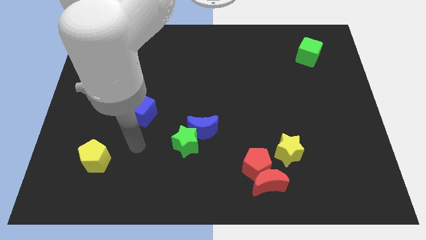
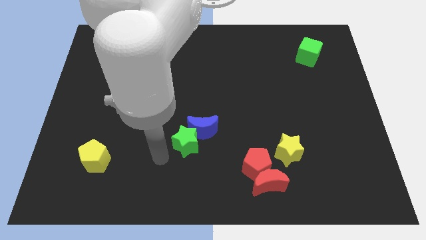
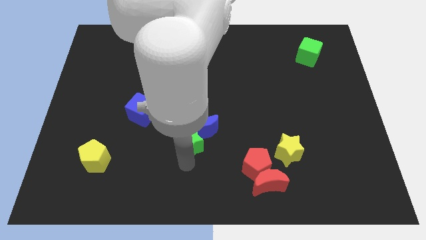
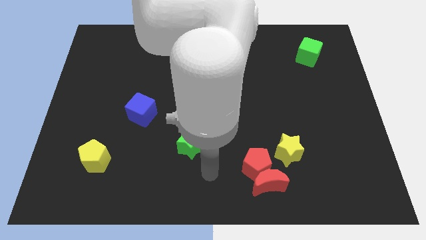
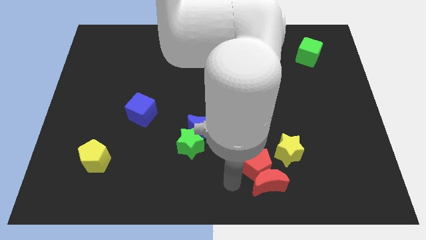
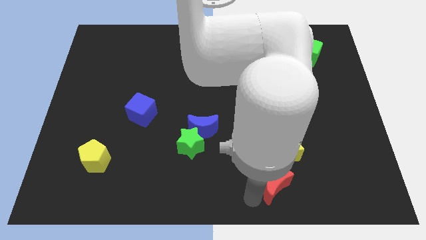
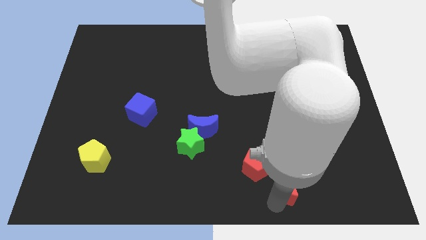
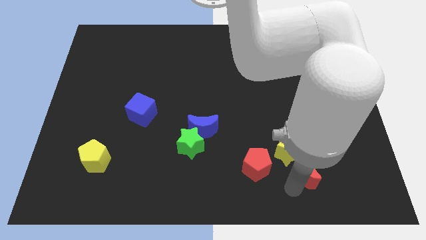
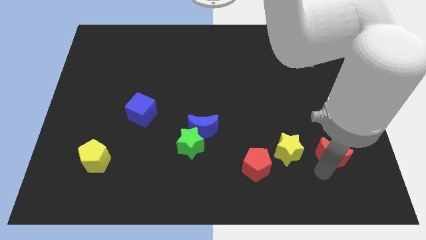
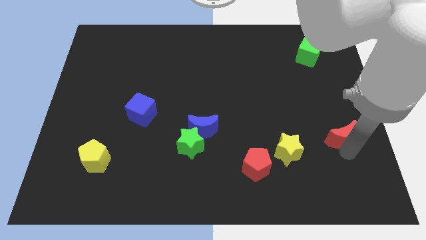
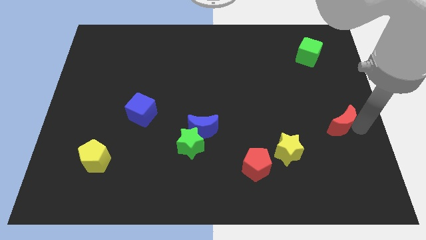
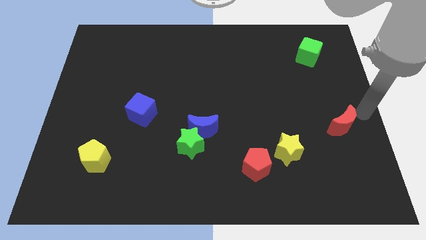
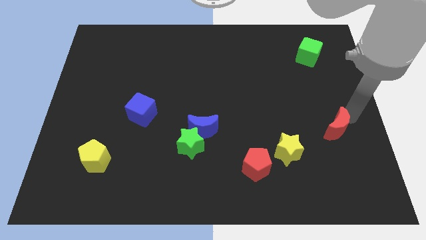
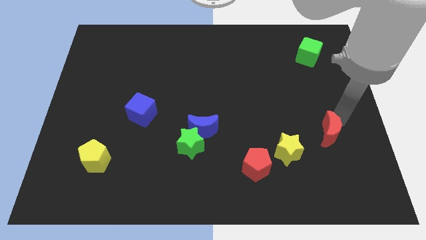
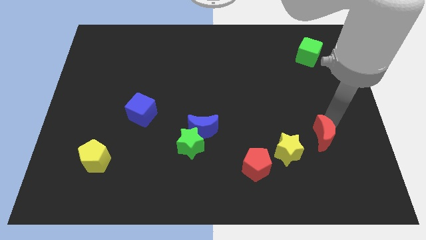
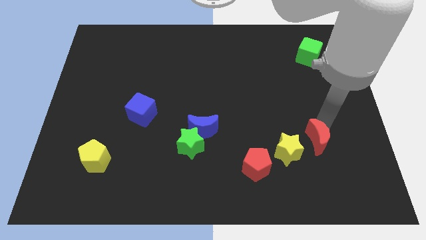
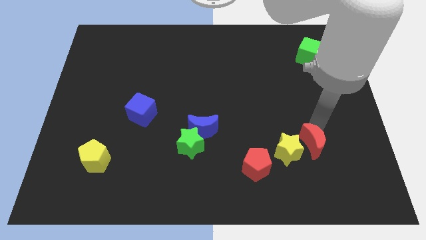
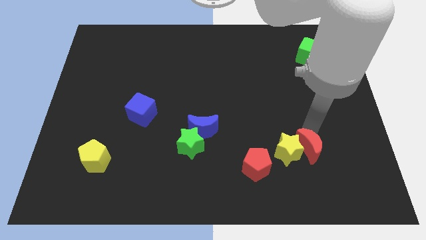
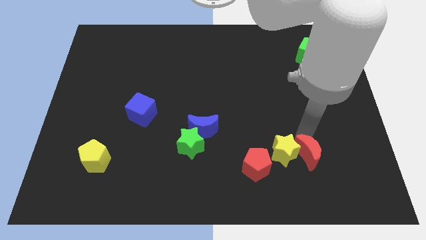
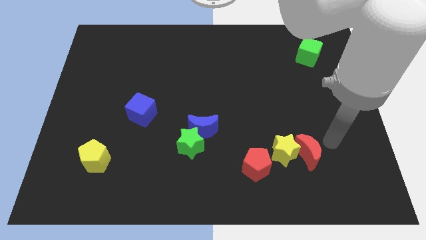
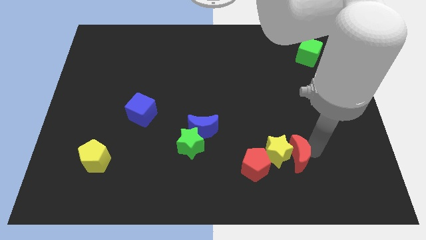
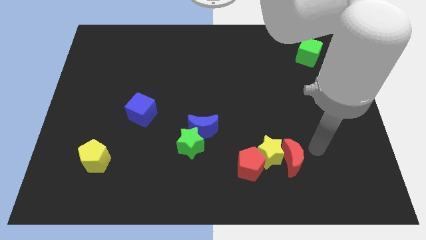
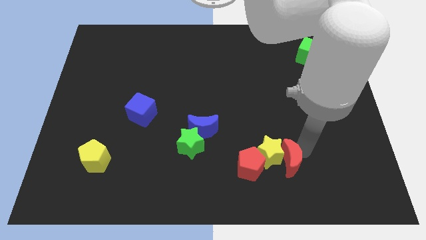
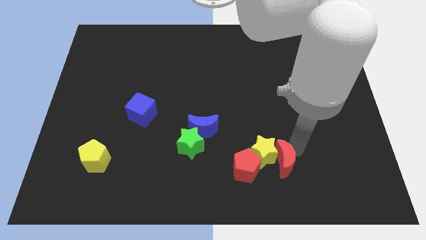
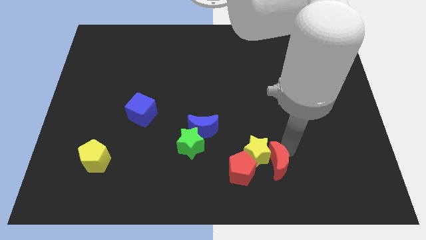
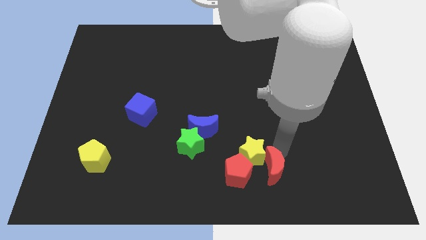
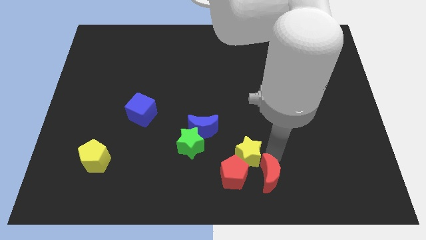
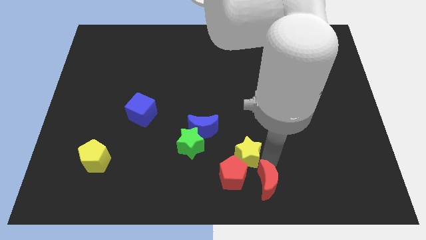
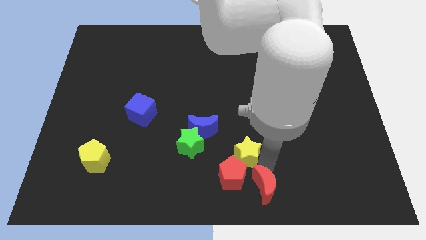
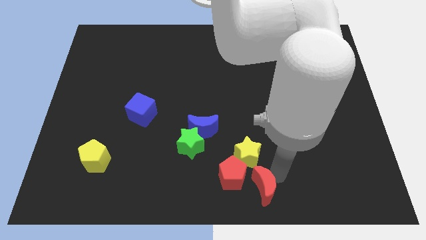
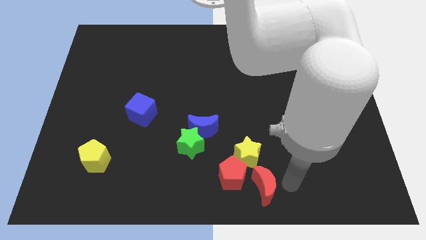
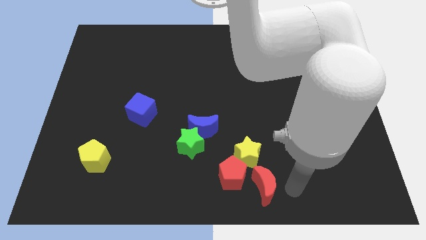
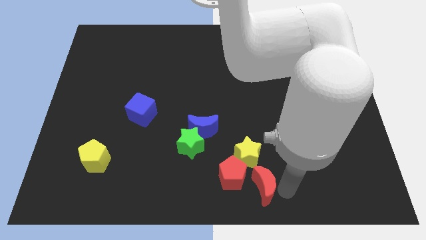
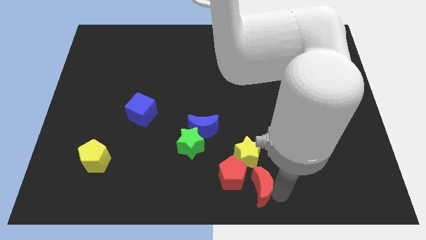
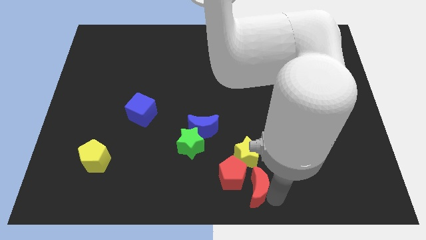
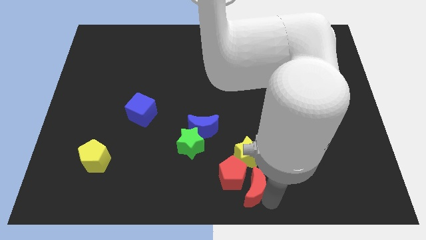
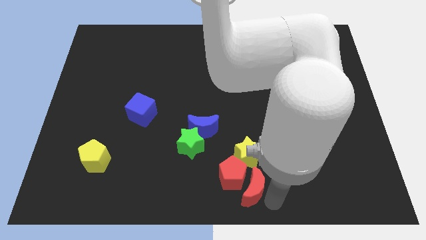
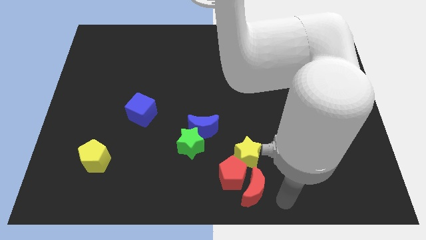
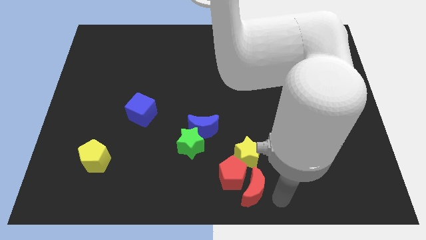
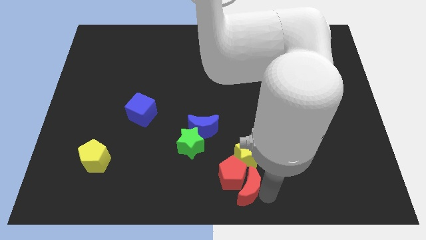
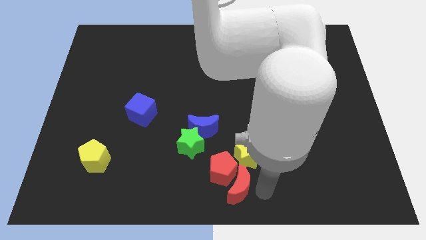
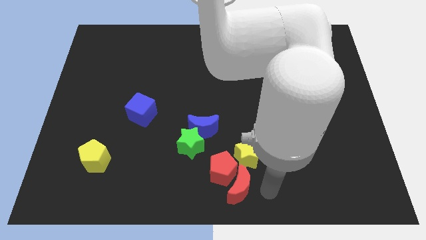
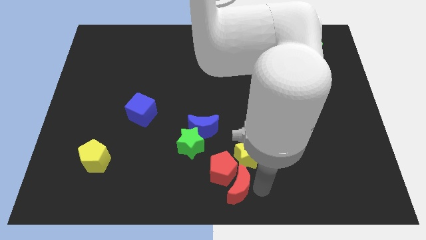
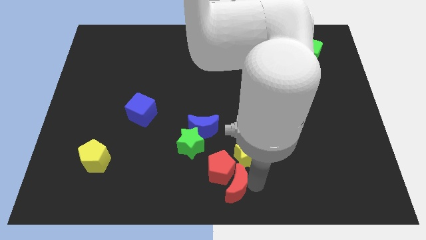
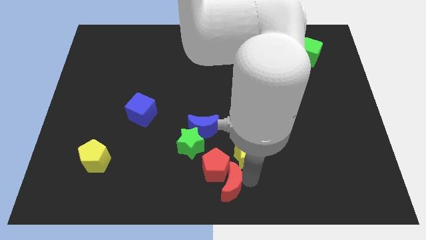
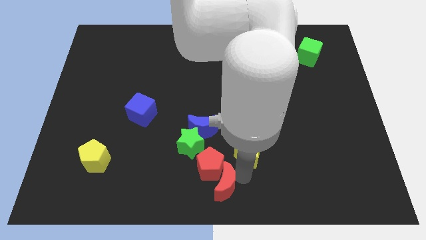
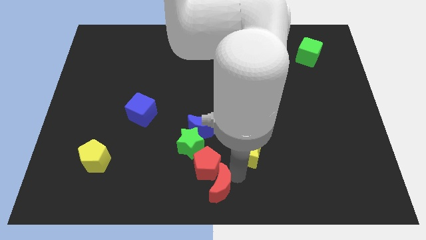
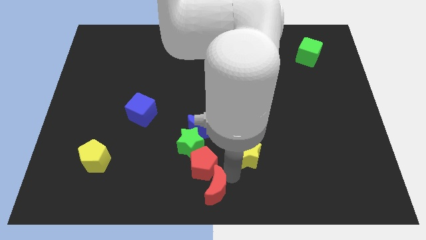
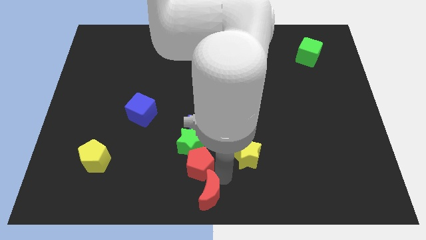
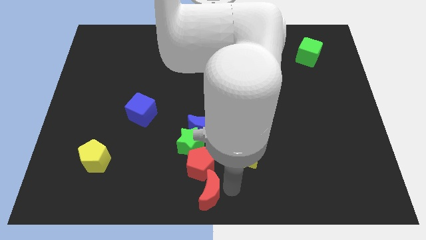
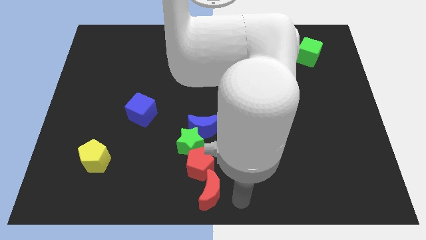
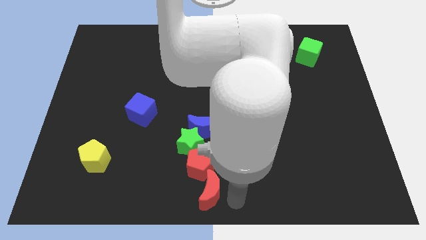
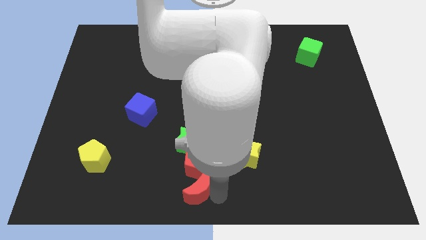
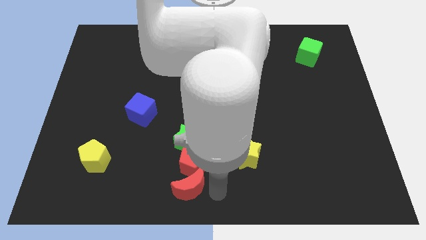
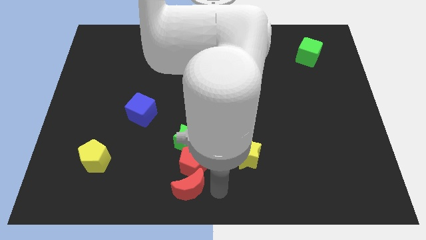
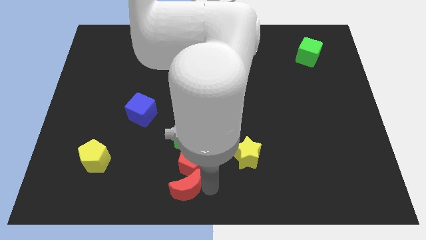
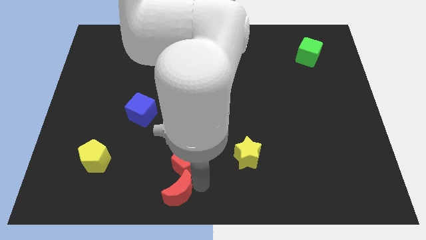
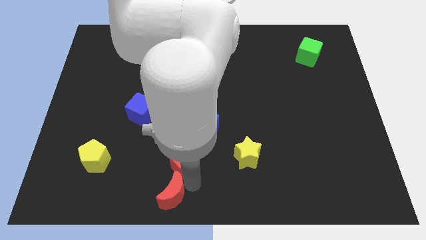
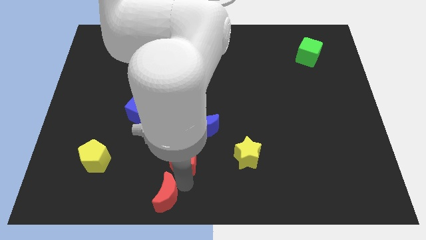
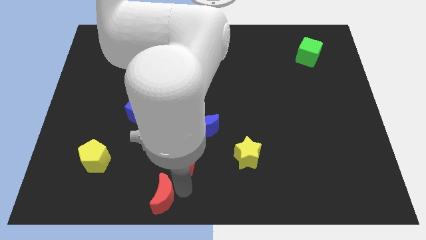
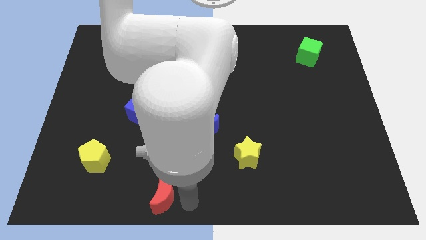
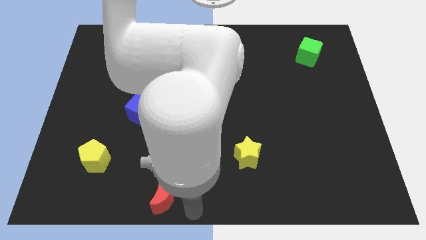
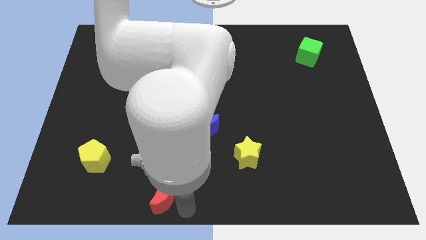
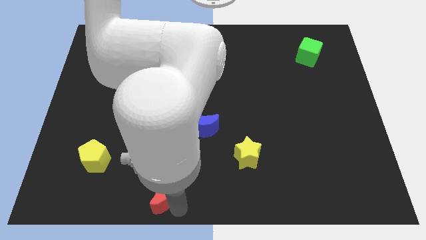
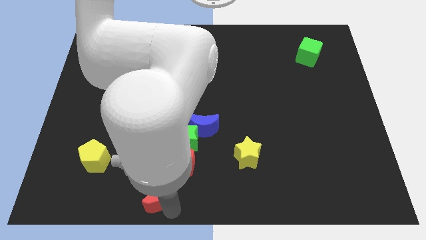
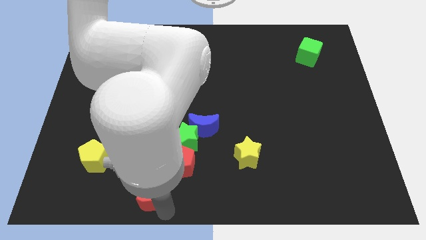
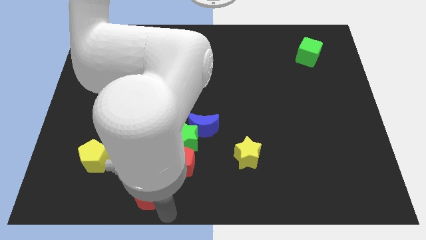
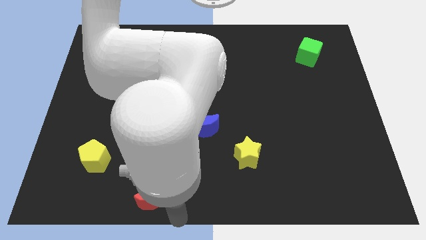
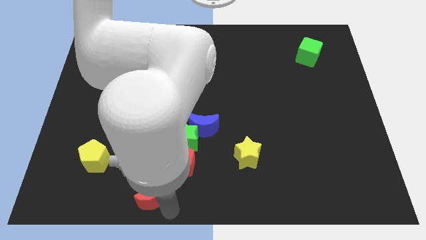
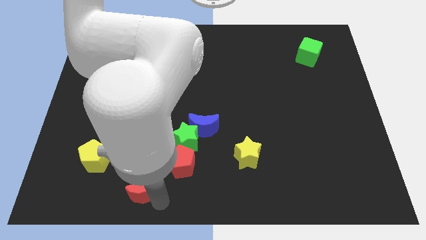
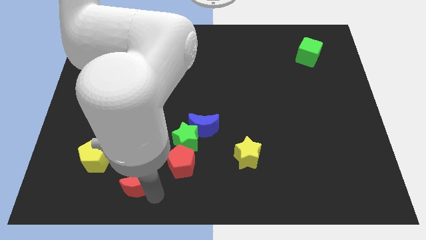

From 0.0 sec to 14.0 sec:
move the red moon to the bottom right side of the yellow pentagon

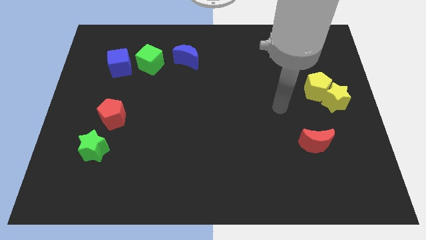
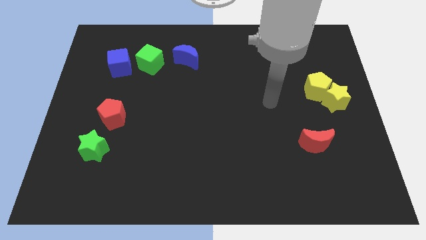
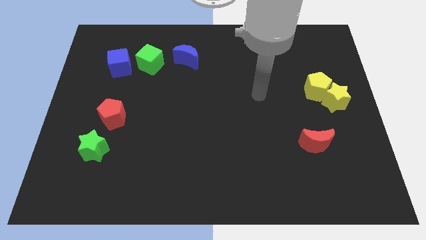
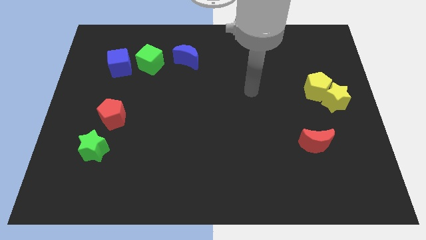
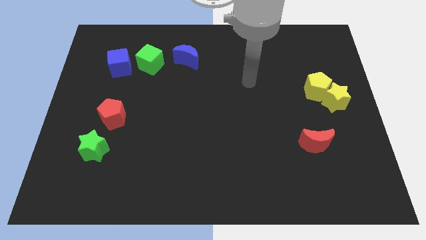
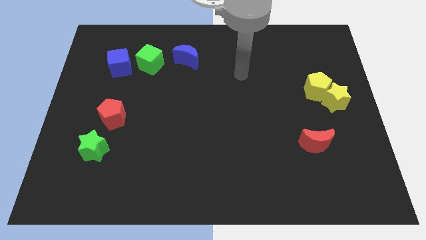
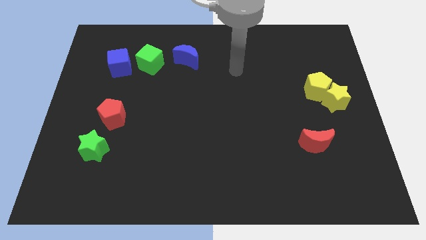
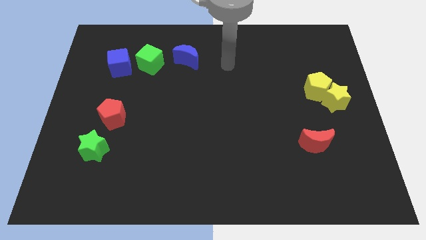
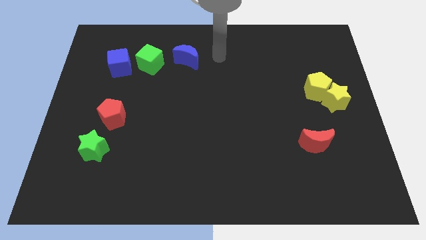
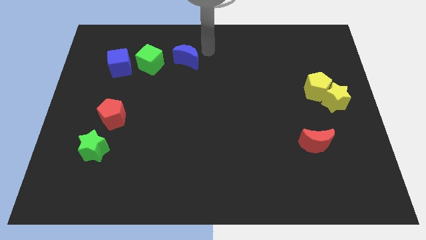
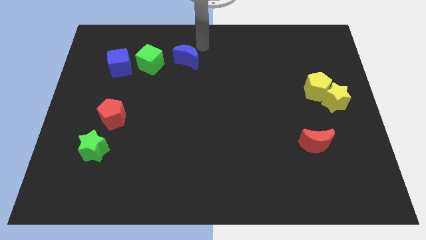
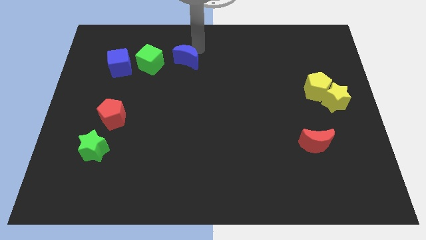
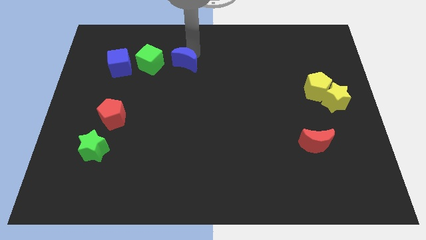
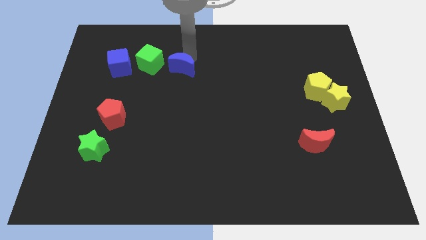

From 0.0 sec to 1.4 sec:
push the blue moon to the bottom right side of the green cube
